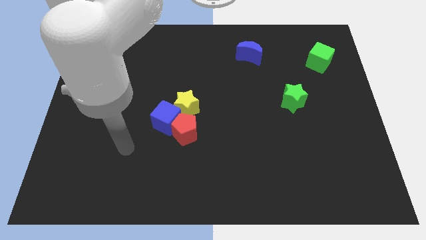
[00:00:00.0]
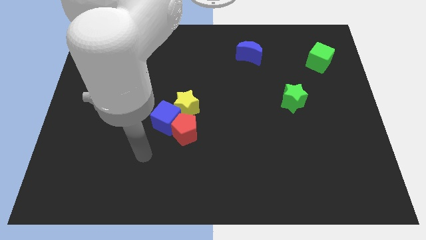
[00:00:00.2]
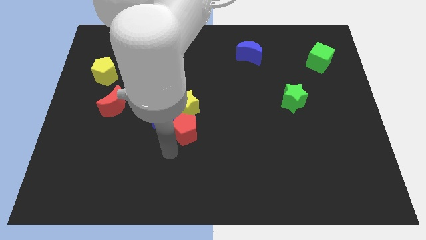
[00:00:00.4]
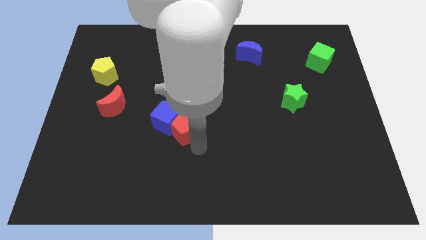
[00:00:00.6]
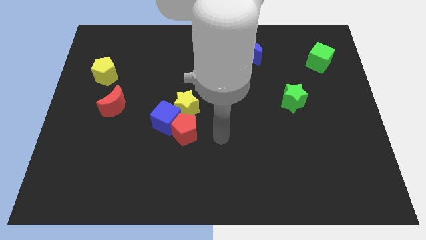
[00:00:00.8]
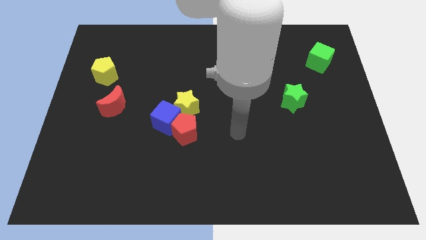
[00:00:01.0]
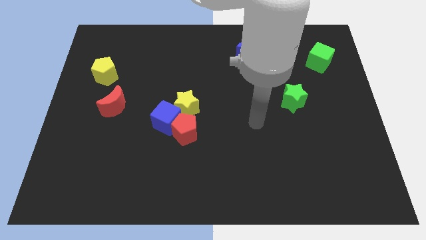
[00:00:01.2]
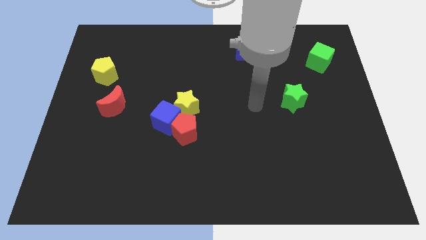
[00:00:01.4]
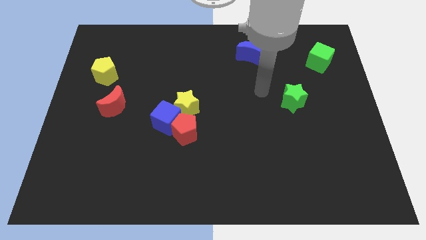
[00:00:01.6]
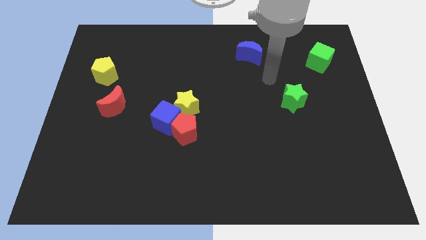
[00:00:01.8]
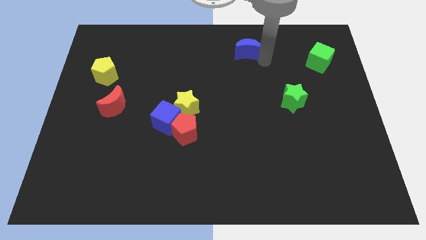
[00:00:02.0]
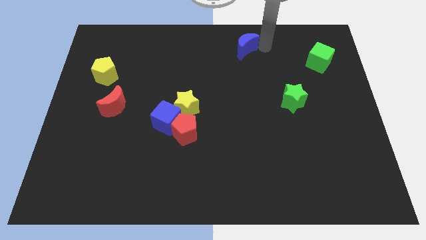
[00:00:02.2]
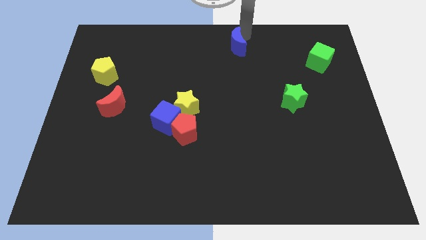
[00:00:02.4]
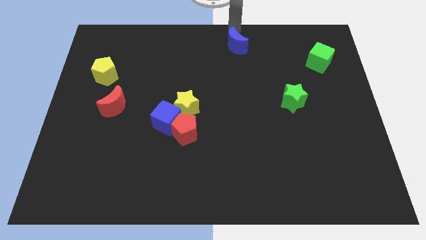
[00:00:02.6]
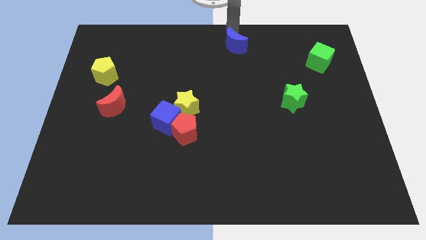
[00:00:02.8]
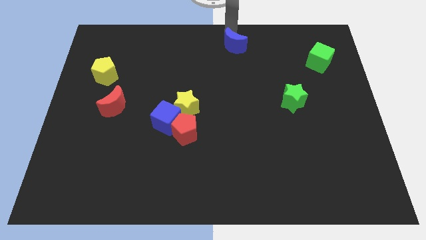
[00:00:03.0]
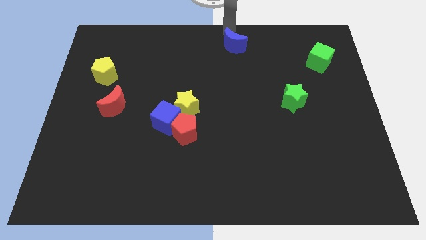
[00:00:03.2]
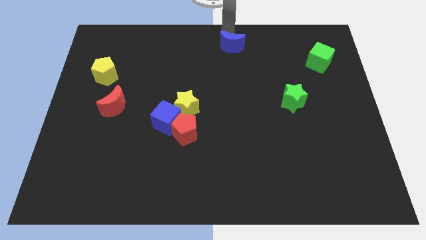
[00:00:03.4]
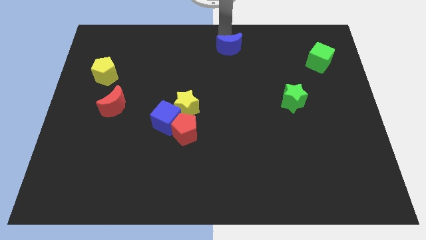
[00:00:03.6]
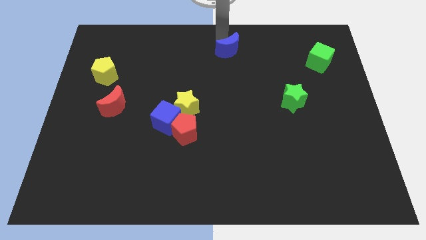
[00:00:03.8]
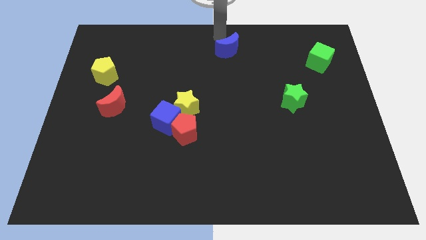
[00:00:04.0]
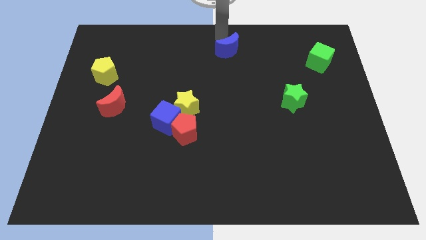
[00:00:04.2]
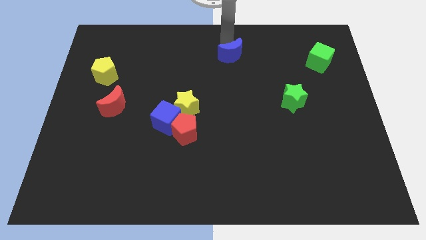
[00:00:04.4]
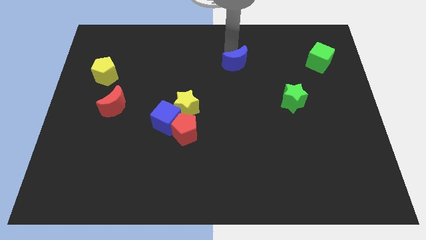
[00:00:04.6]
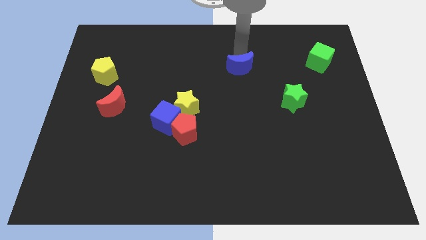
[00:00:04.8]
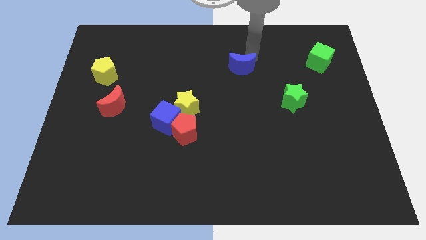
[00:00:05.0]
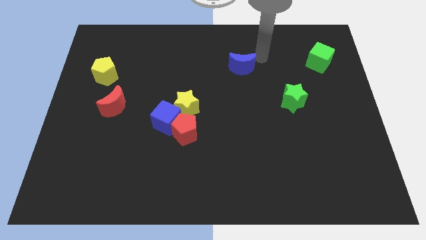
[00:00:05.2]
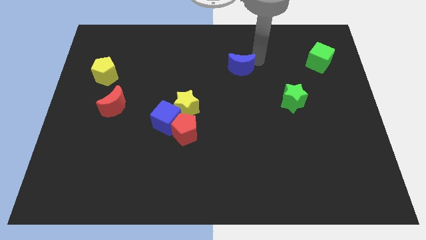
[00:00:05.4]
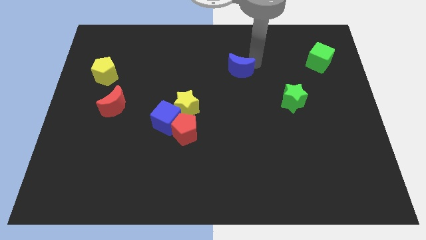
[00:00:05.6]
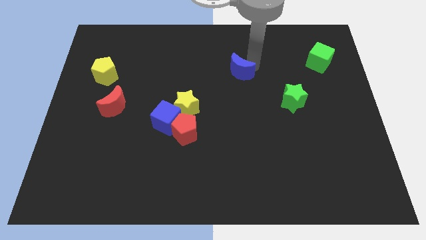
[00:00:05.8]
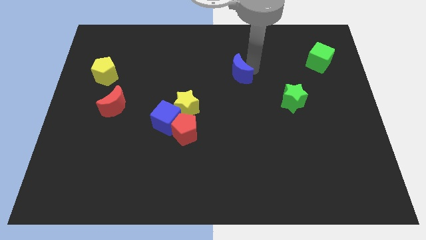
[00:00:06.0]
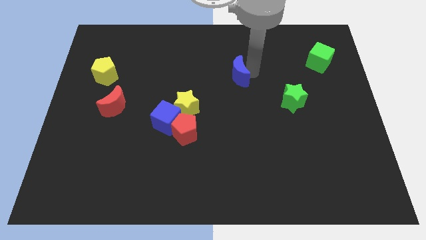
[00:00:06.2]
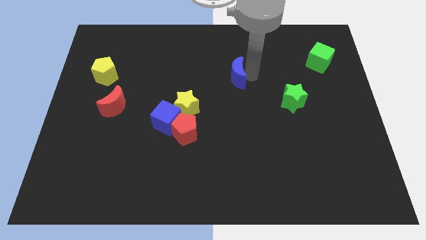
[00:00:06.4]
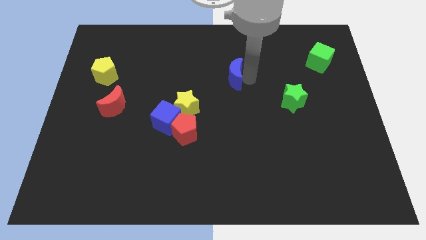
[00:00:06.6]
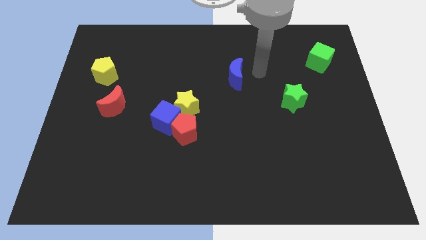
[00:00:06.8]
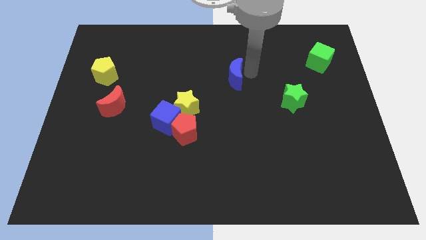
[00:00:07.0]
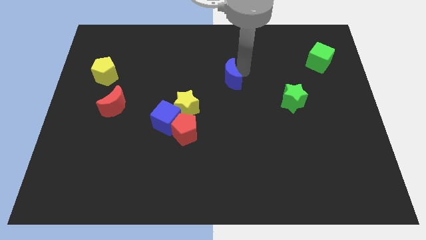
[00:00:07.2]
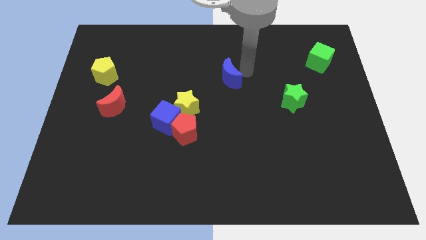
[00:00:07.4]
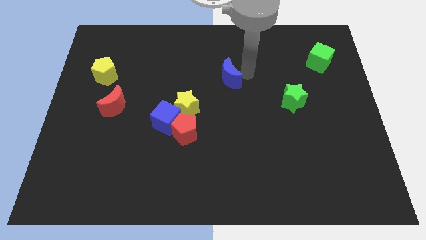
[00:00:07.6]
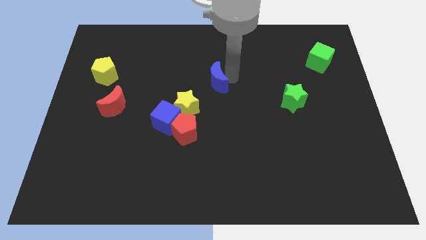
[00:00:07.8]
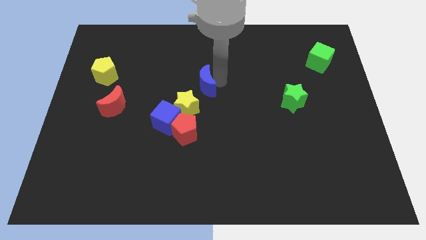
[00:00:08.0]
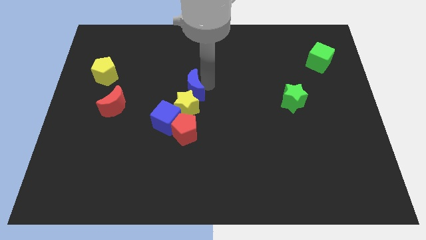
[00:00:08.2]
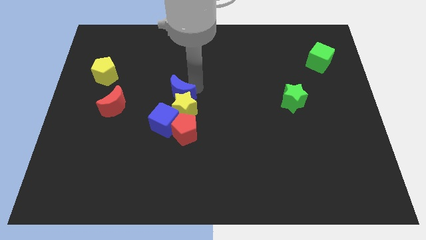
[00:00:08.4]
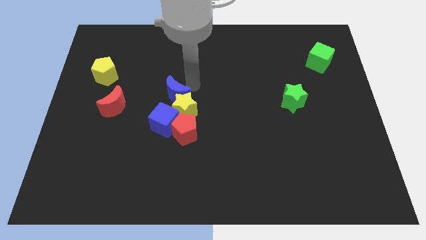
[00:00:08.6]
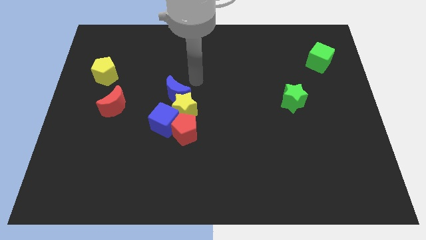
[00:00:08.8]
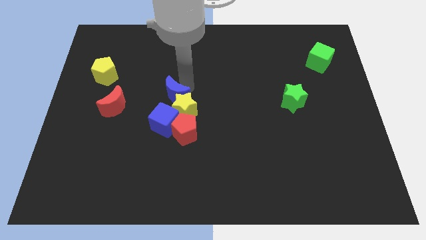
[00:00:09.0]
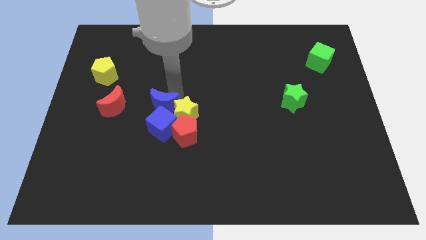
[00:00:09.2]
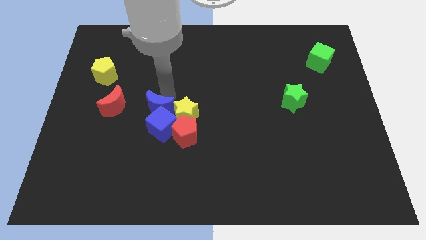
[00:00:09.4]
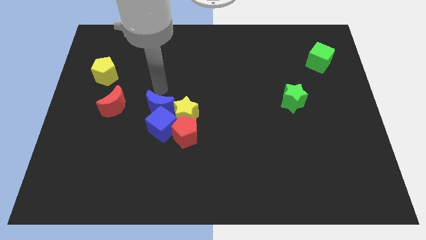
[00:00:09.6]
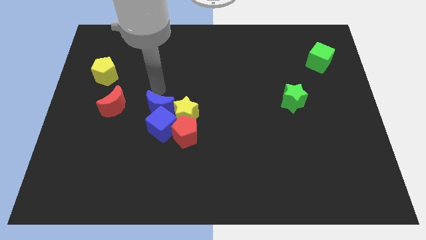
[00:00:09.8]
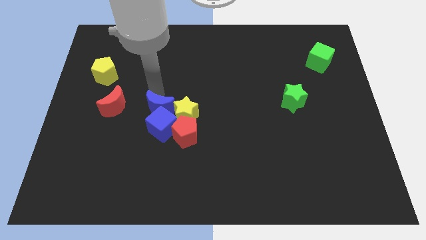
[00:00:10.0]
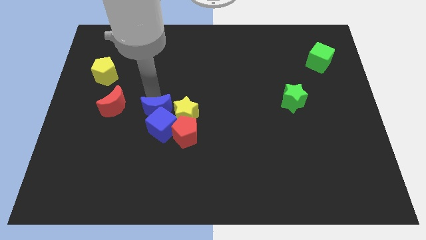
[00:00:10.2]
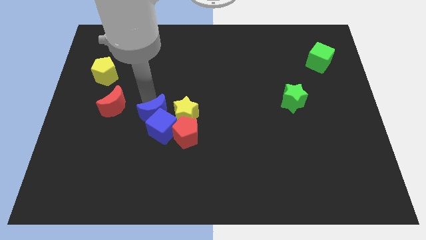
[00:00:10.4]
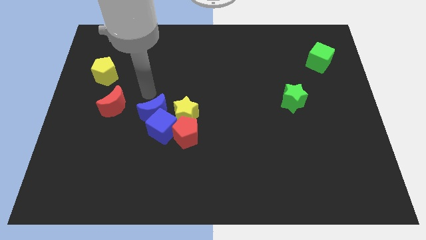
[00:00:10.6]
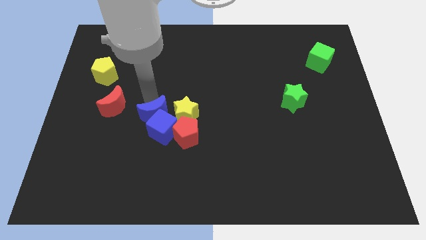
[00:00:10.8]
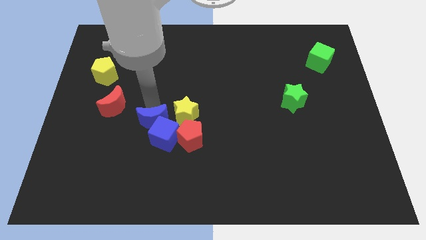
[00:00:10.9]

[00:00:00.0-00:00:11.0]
move the blue moon diagonally down and to the left of the yellow star
